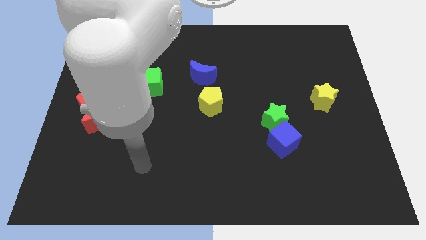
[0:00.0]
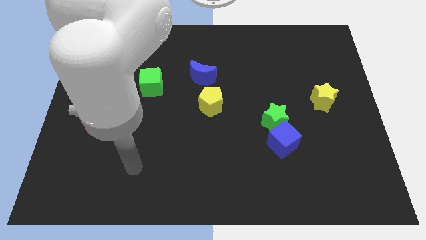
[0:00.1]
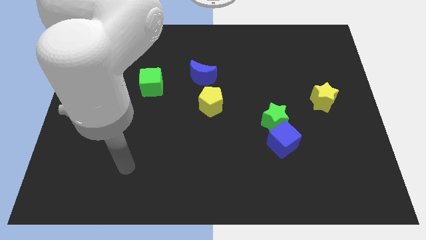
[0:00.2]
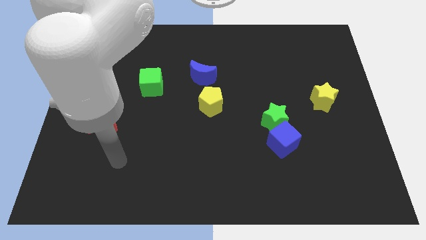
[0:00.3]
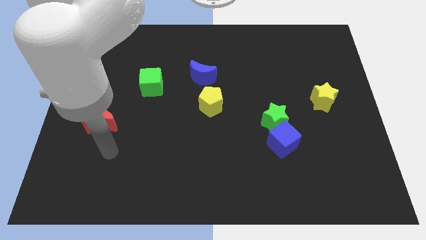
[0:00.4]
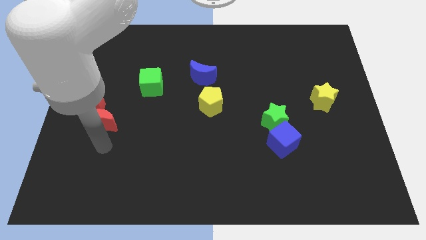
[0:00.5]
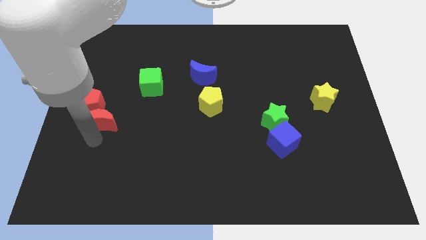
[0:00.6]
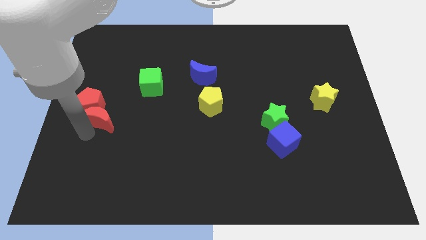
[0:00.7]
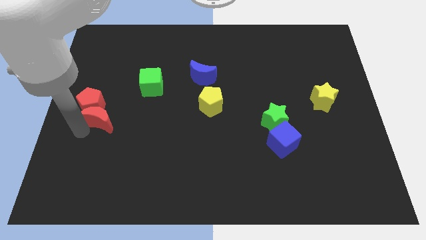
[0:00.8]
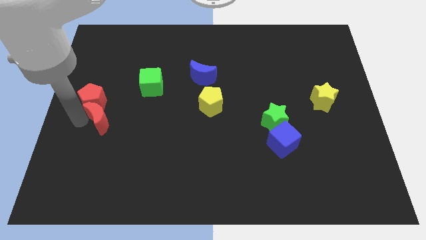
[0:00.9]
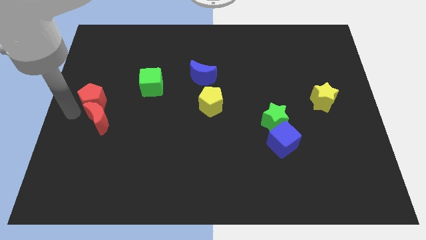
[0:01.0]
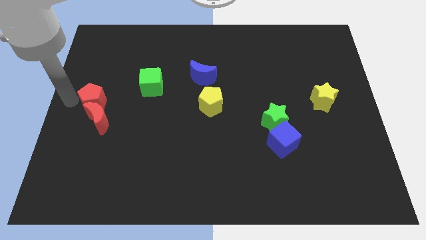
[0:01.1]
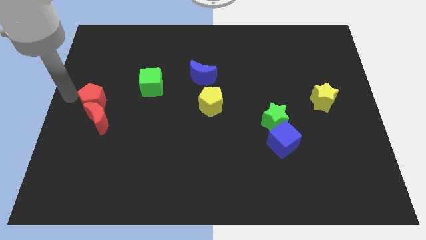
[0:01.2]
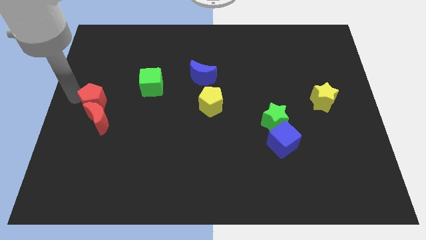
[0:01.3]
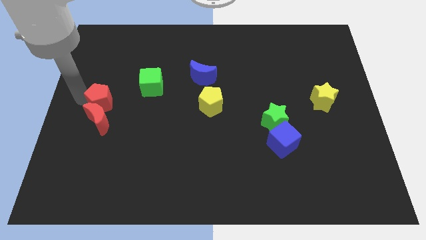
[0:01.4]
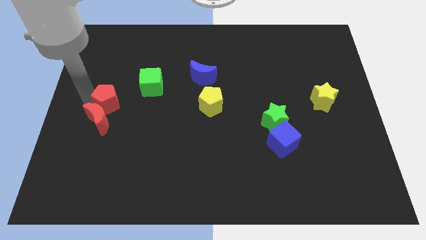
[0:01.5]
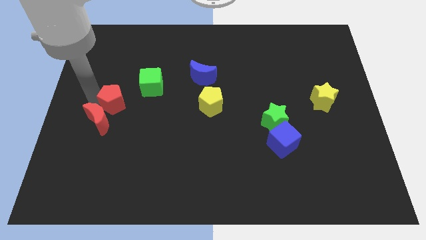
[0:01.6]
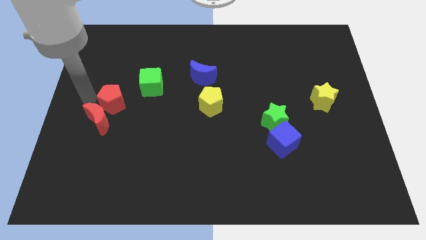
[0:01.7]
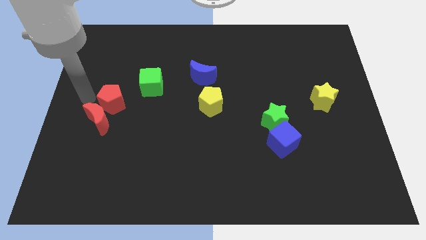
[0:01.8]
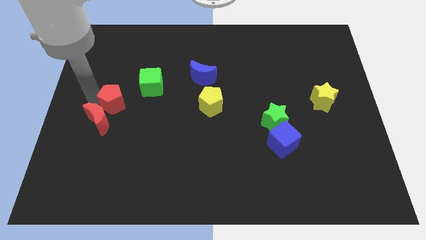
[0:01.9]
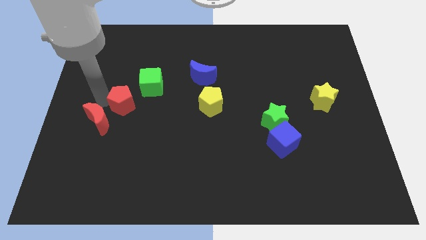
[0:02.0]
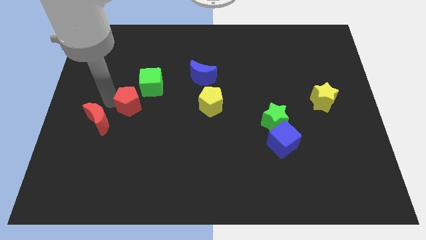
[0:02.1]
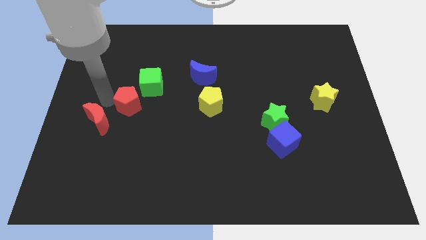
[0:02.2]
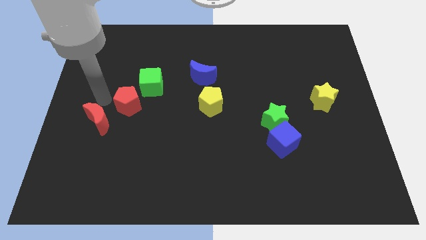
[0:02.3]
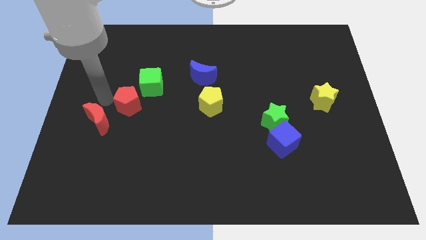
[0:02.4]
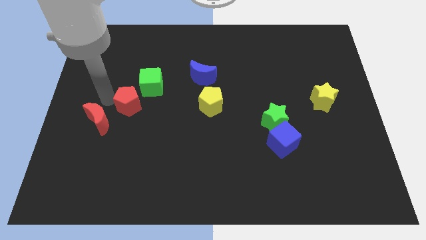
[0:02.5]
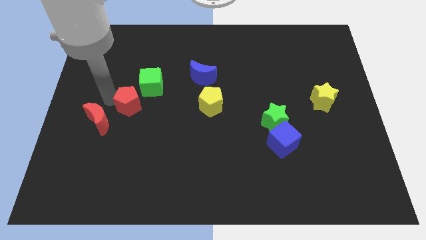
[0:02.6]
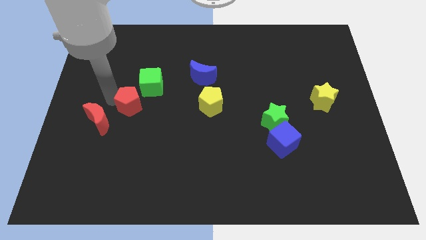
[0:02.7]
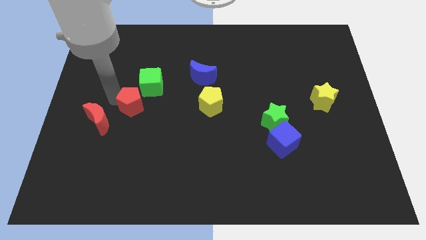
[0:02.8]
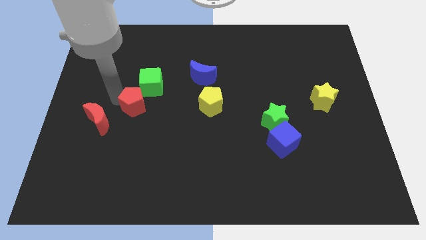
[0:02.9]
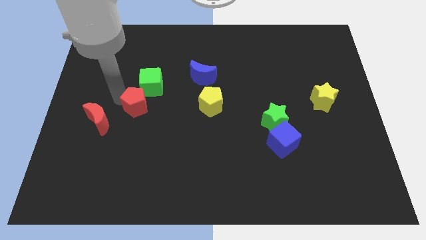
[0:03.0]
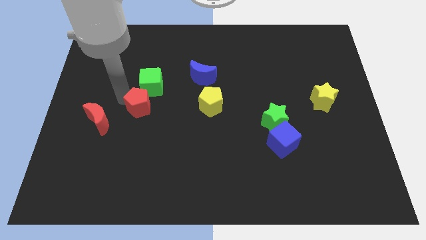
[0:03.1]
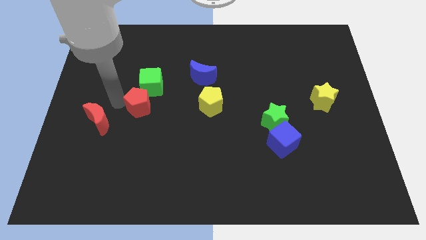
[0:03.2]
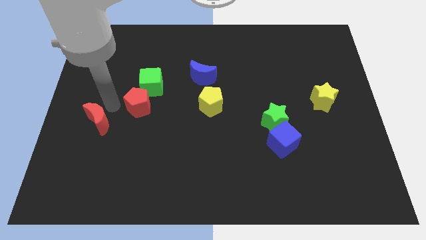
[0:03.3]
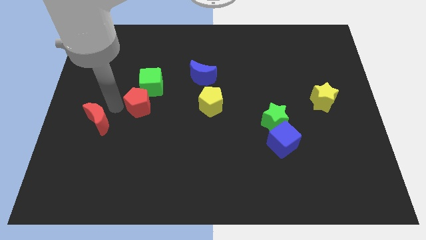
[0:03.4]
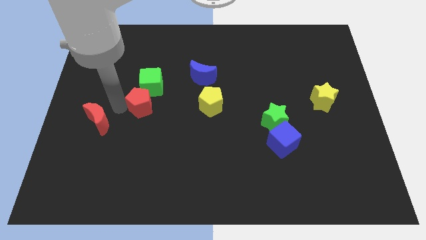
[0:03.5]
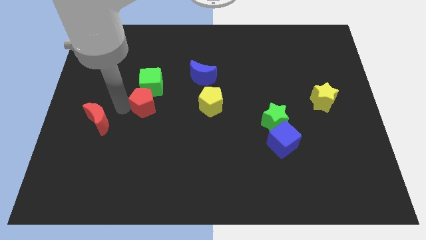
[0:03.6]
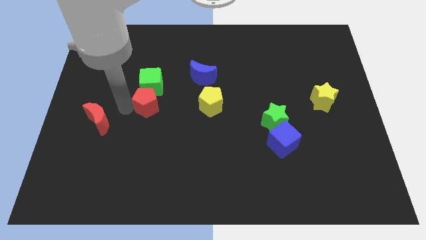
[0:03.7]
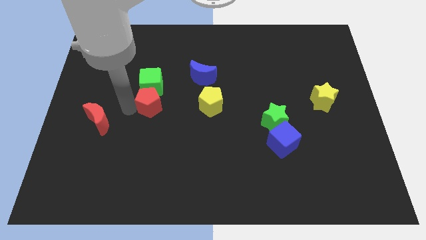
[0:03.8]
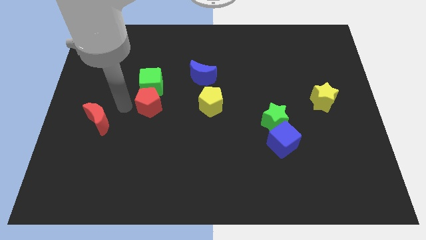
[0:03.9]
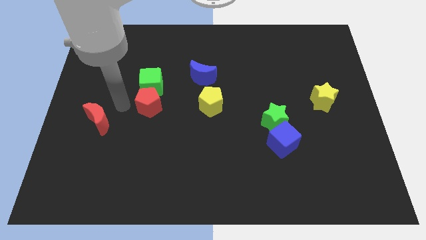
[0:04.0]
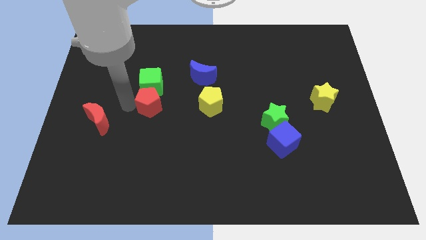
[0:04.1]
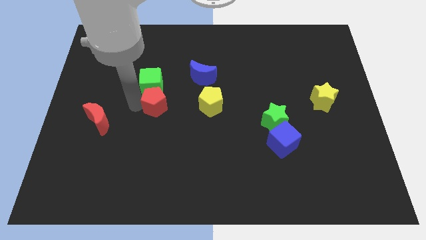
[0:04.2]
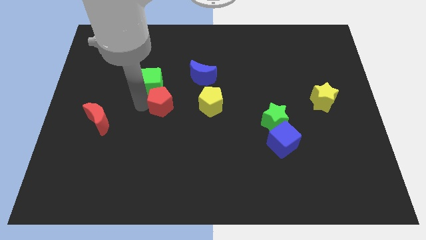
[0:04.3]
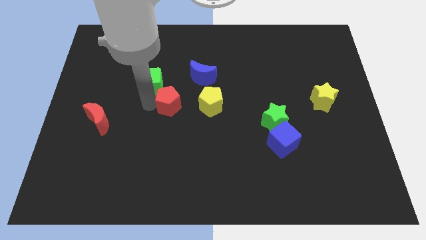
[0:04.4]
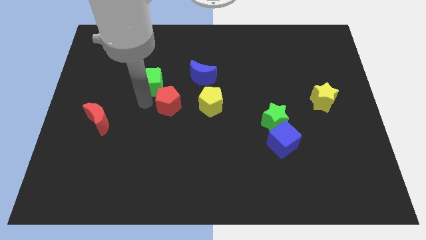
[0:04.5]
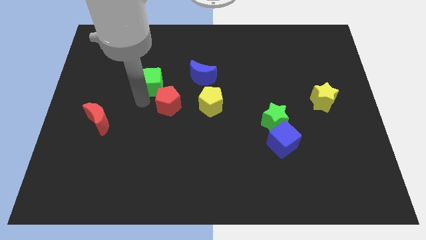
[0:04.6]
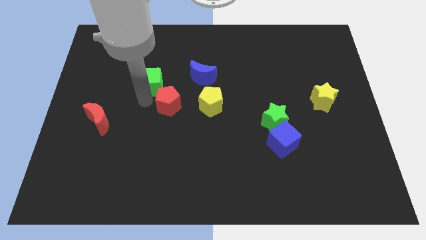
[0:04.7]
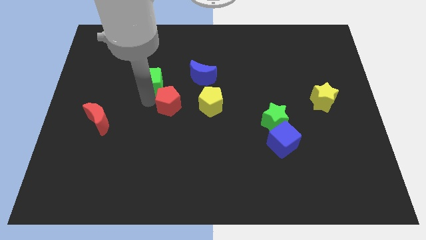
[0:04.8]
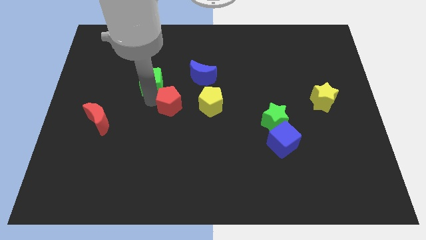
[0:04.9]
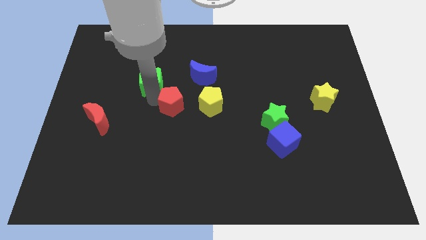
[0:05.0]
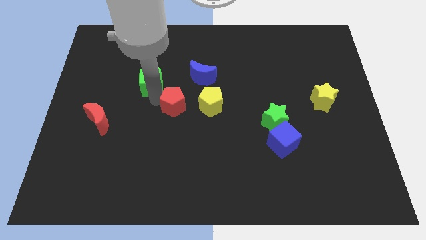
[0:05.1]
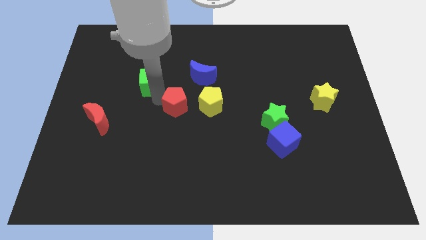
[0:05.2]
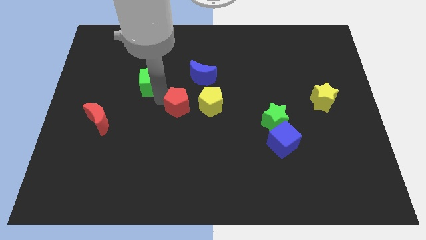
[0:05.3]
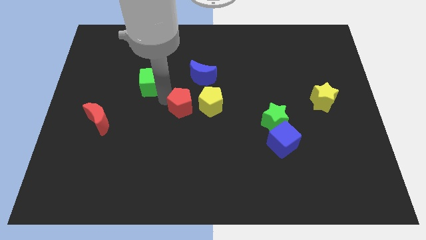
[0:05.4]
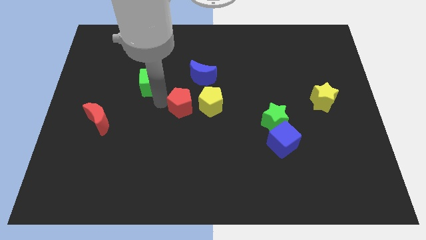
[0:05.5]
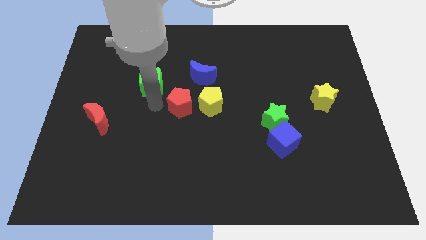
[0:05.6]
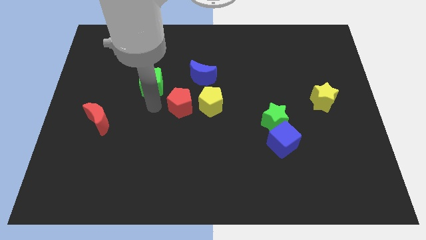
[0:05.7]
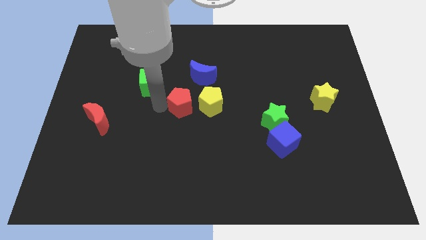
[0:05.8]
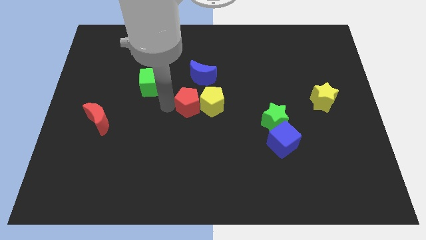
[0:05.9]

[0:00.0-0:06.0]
push the red pentagon close to the yellow pentagon

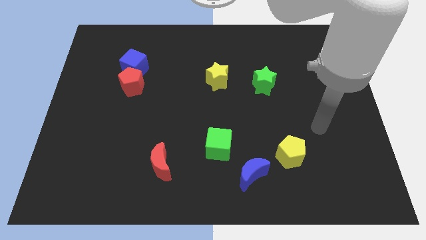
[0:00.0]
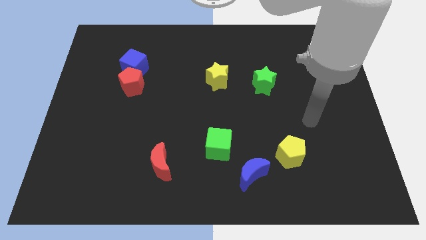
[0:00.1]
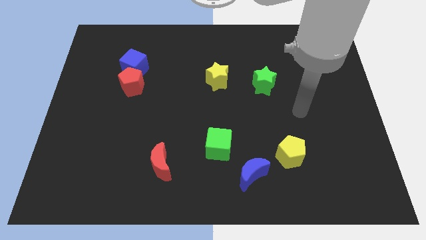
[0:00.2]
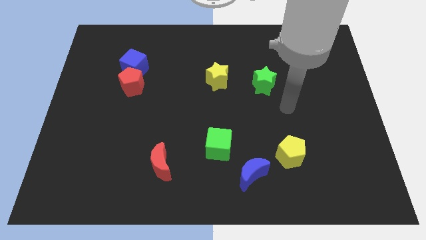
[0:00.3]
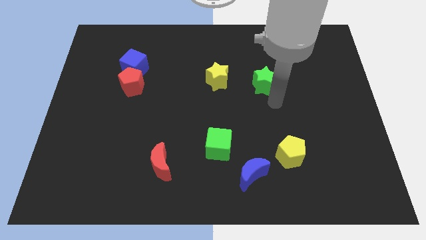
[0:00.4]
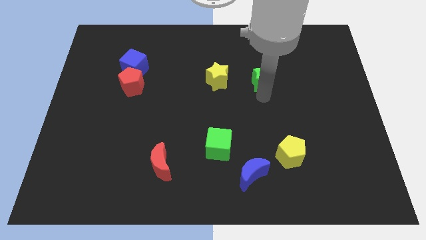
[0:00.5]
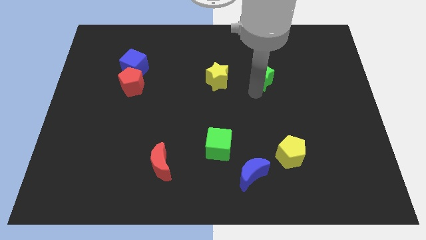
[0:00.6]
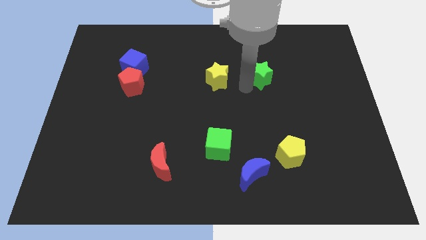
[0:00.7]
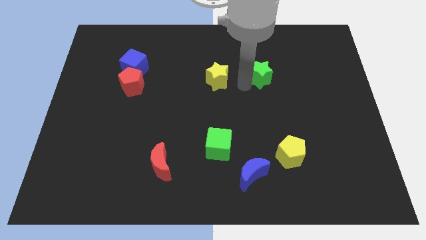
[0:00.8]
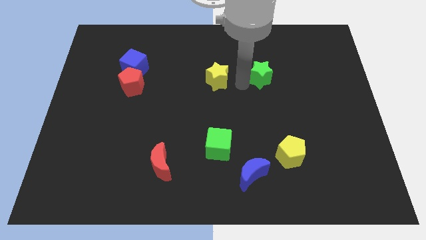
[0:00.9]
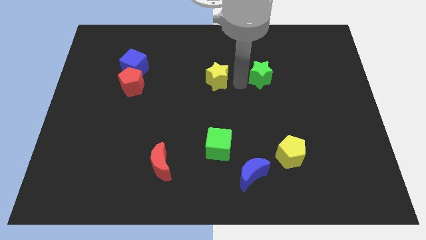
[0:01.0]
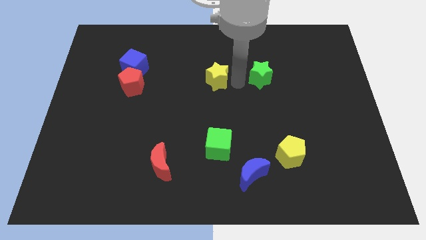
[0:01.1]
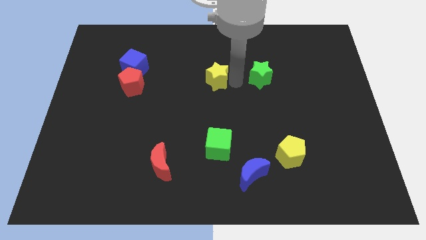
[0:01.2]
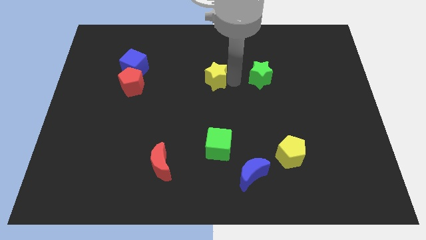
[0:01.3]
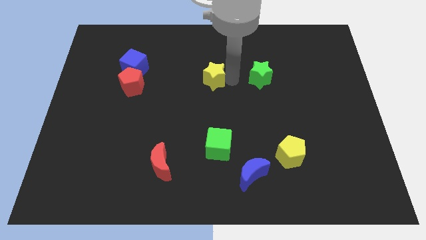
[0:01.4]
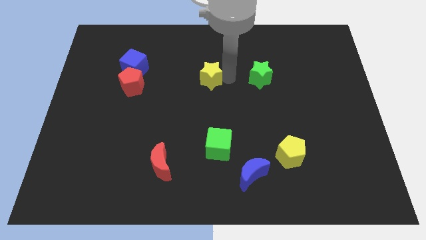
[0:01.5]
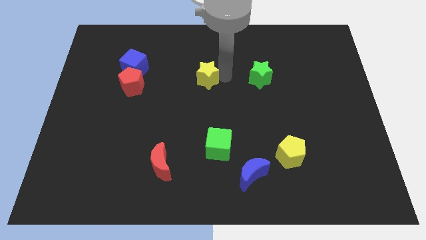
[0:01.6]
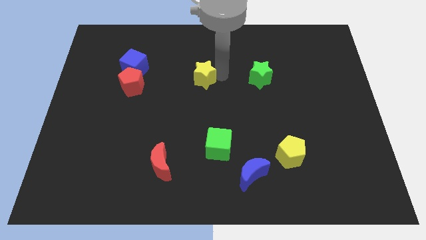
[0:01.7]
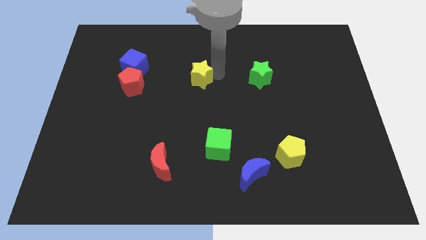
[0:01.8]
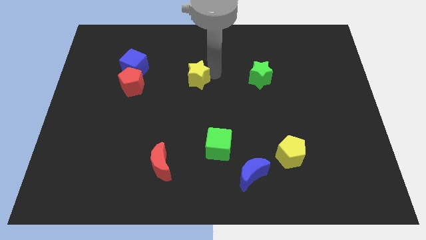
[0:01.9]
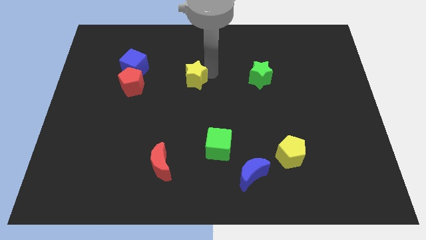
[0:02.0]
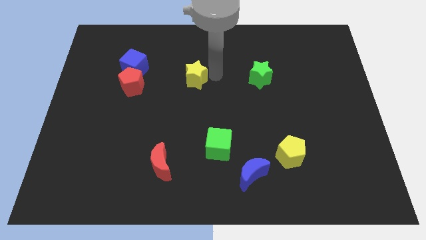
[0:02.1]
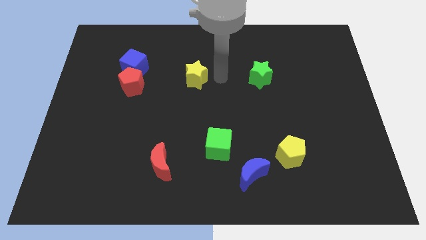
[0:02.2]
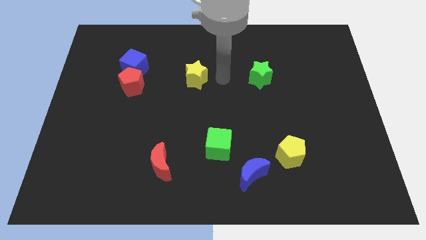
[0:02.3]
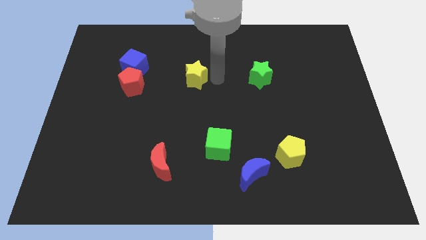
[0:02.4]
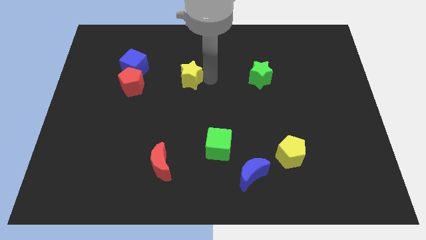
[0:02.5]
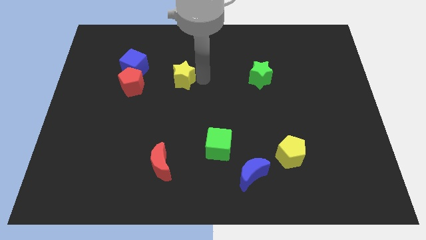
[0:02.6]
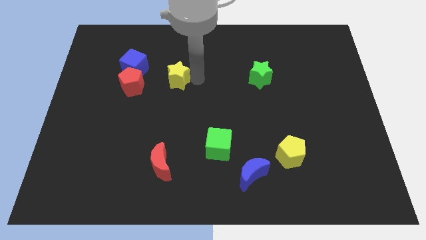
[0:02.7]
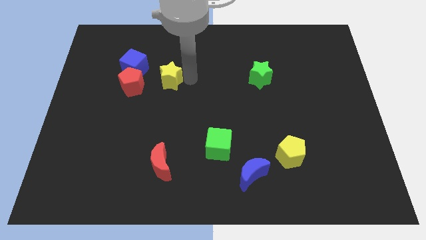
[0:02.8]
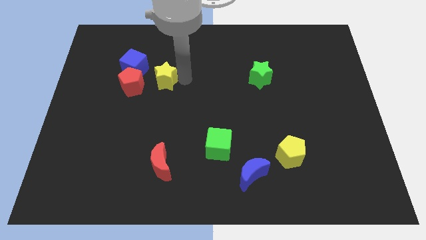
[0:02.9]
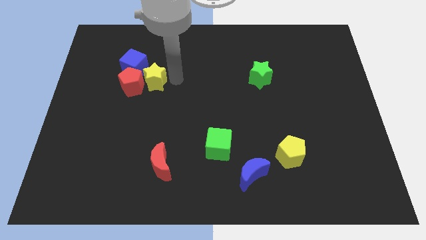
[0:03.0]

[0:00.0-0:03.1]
move the yellow star next to the red pentagon
